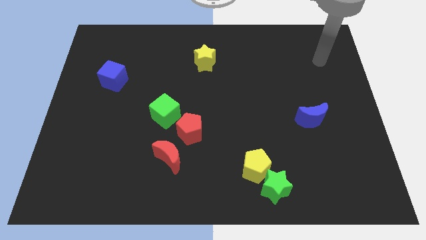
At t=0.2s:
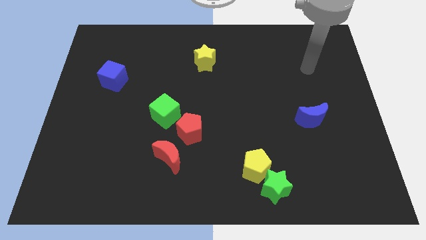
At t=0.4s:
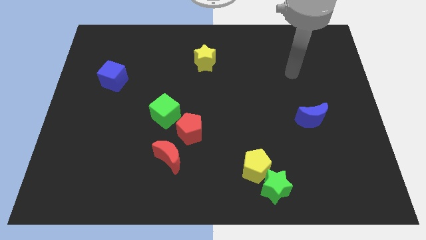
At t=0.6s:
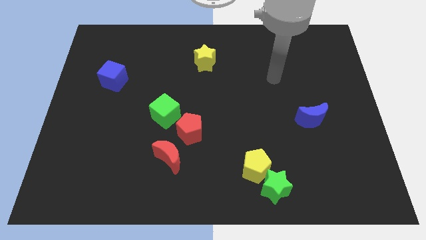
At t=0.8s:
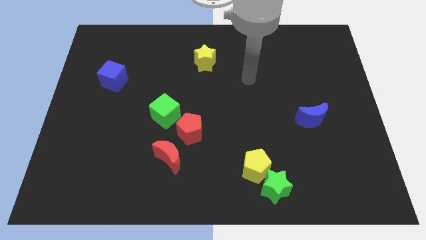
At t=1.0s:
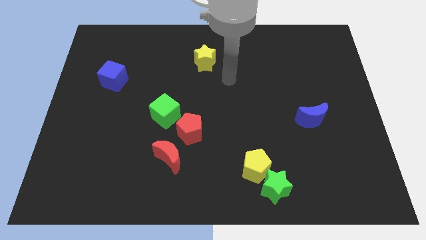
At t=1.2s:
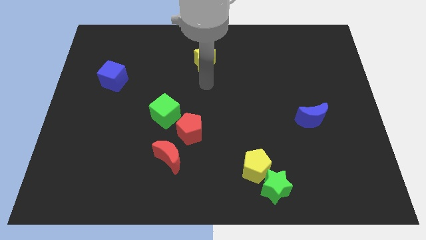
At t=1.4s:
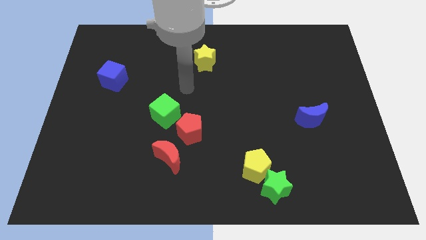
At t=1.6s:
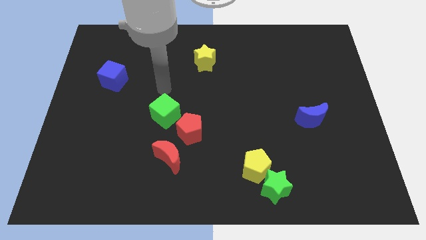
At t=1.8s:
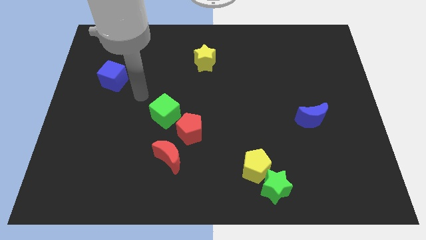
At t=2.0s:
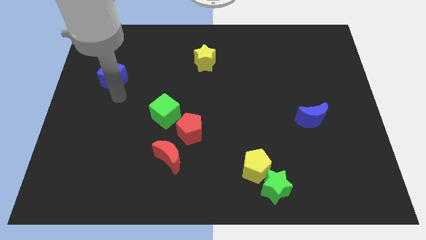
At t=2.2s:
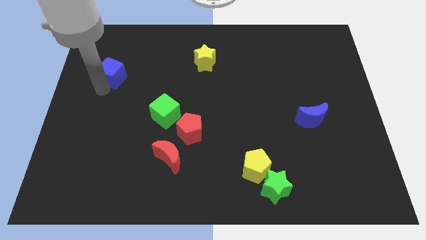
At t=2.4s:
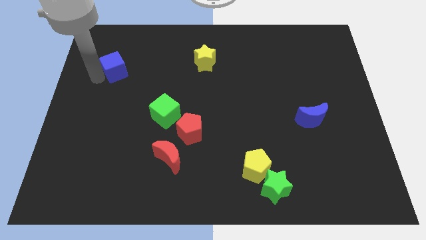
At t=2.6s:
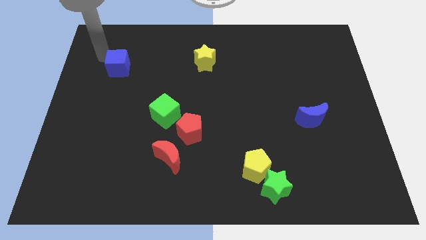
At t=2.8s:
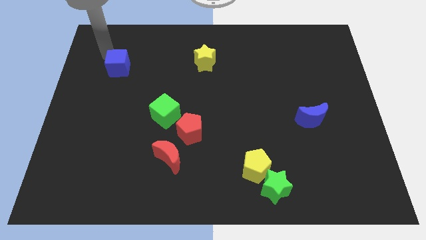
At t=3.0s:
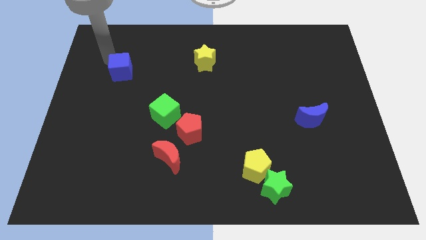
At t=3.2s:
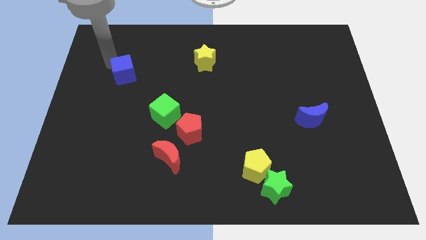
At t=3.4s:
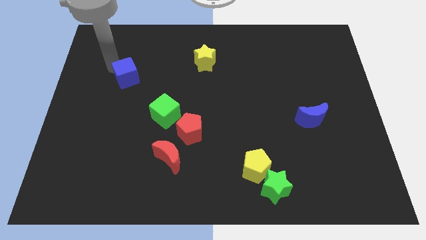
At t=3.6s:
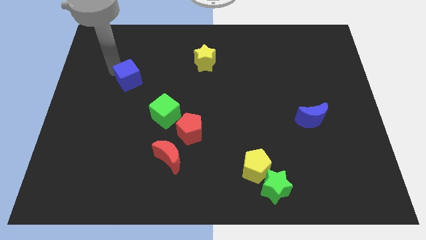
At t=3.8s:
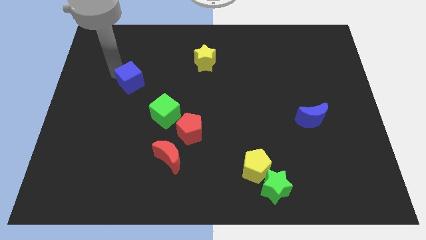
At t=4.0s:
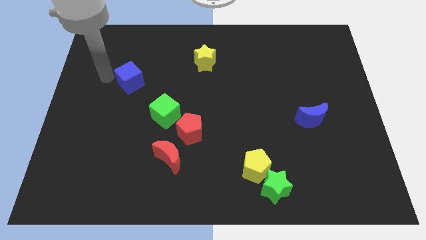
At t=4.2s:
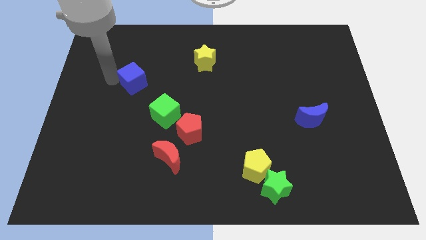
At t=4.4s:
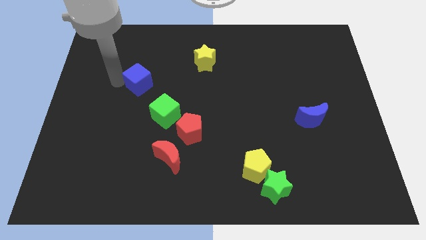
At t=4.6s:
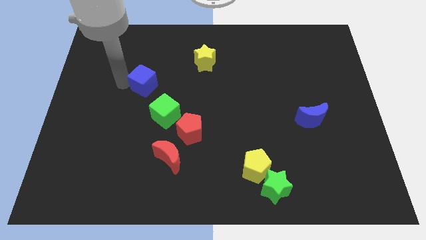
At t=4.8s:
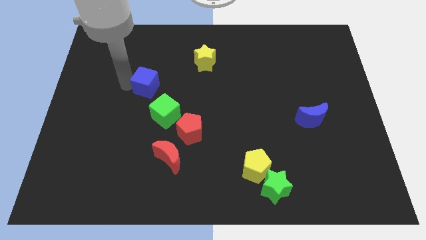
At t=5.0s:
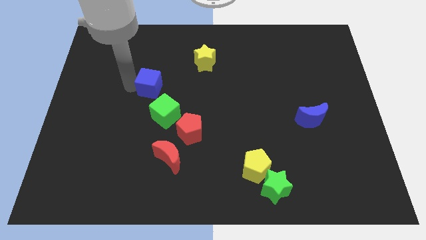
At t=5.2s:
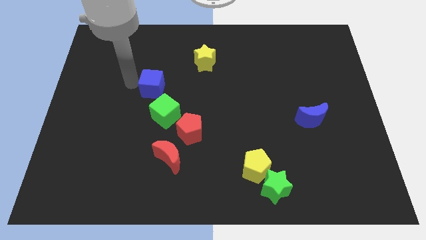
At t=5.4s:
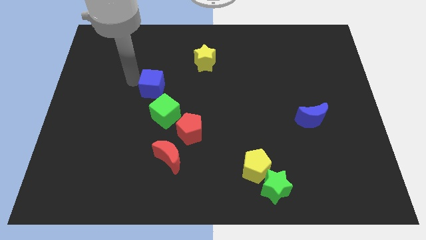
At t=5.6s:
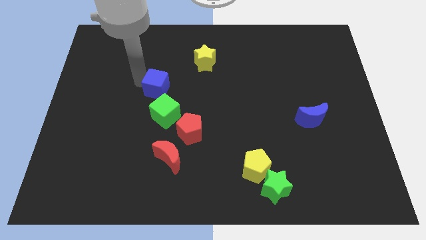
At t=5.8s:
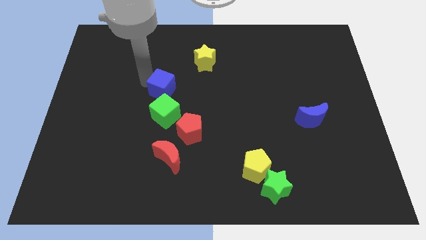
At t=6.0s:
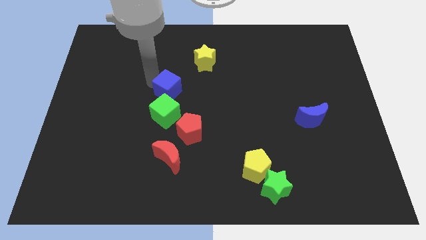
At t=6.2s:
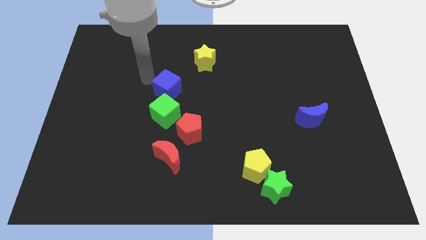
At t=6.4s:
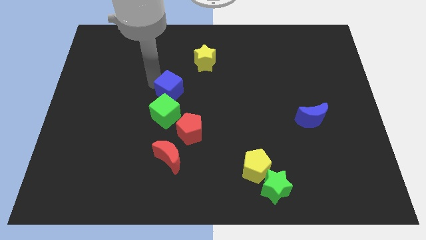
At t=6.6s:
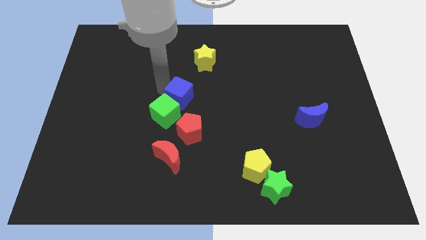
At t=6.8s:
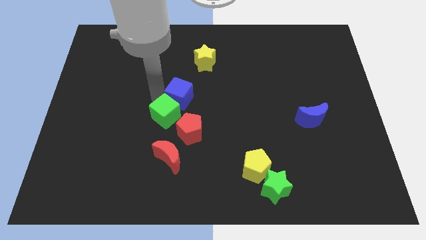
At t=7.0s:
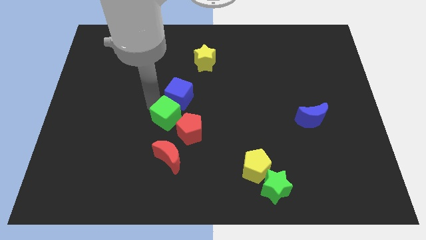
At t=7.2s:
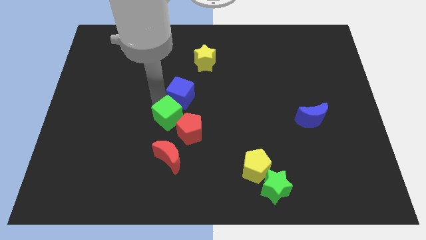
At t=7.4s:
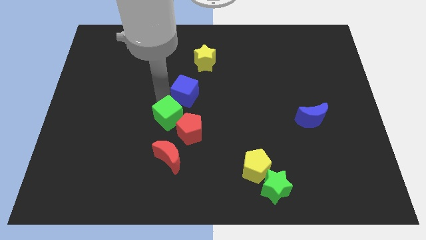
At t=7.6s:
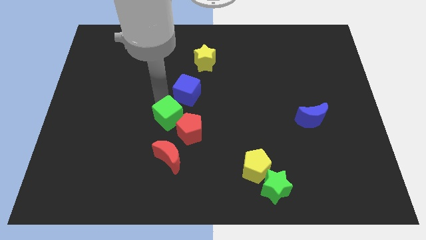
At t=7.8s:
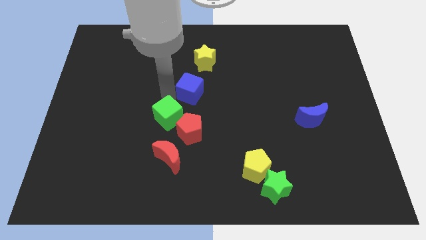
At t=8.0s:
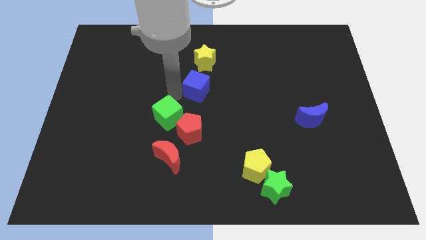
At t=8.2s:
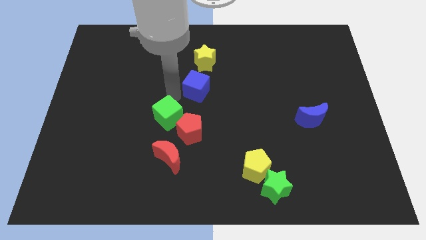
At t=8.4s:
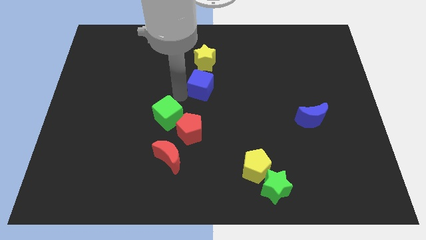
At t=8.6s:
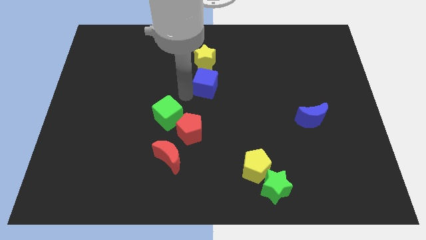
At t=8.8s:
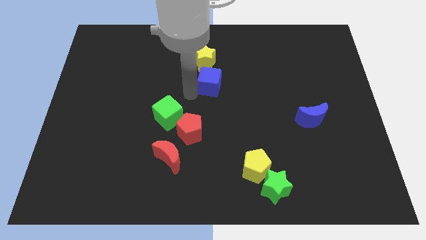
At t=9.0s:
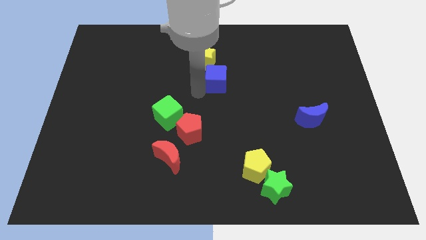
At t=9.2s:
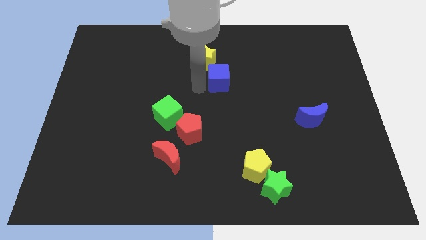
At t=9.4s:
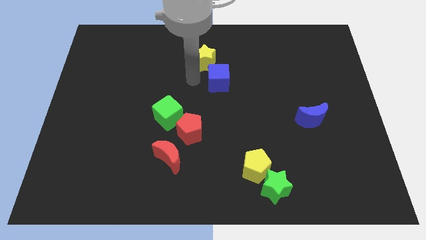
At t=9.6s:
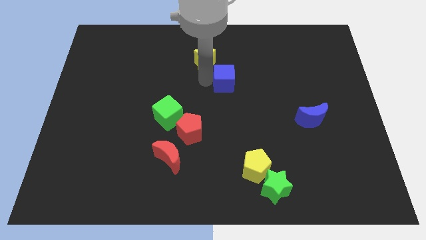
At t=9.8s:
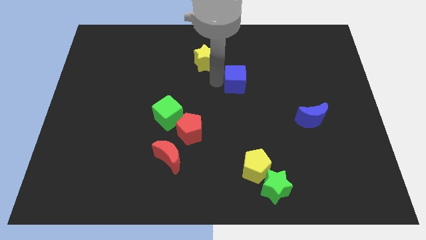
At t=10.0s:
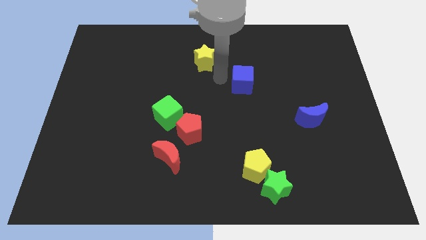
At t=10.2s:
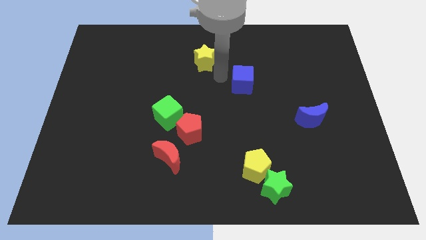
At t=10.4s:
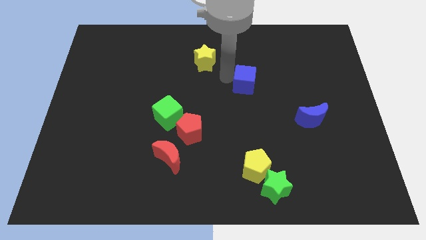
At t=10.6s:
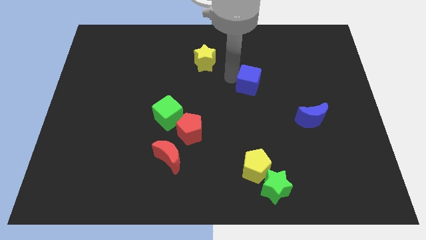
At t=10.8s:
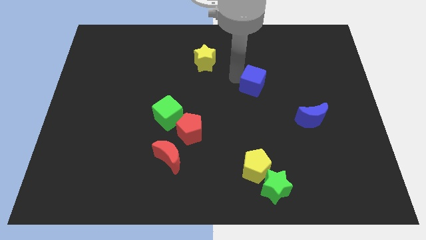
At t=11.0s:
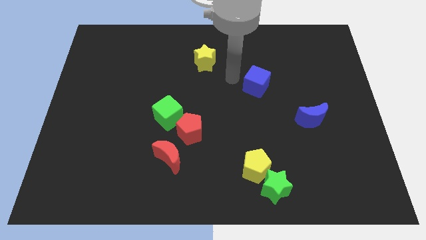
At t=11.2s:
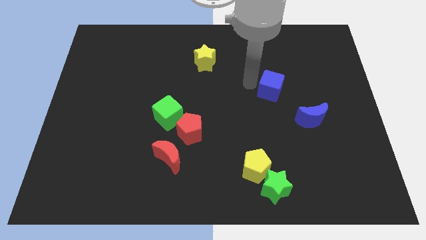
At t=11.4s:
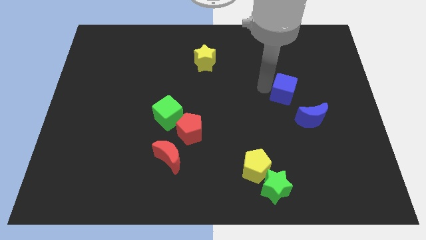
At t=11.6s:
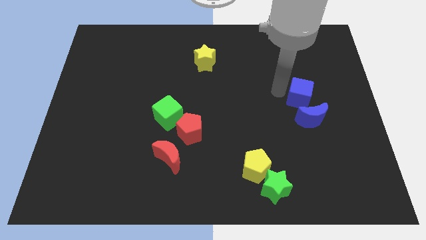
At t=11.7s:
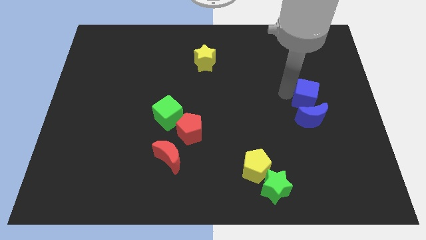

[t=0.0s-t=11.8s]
slide the blue cube to the top right side of the blue moon

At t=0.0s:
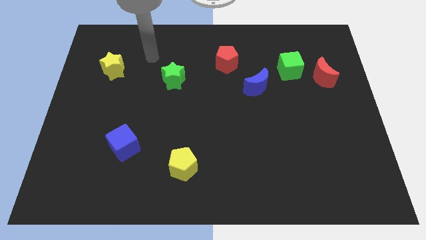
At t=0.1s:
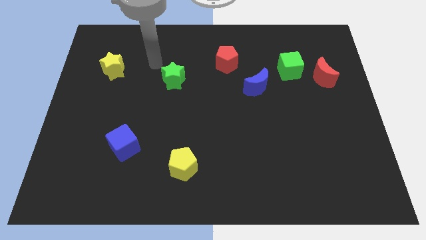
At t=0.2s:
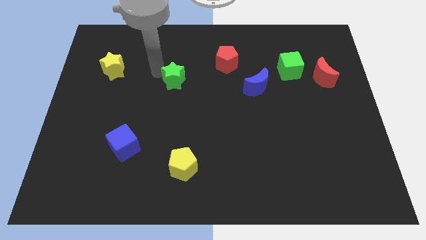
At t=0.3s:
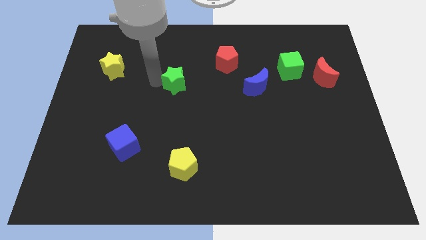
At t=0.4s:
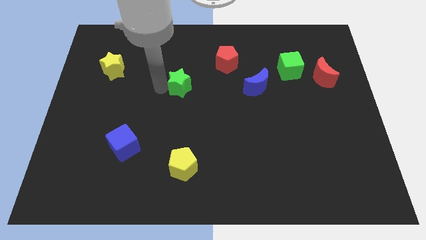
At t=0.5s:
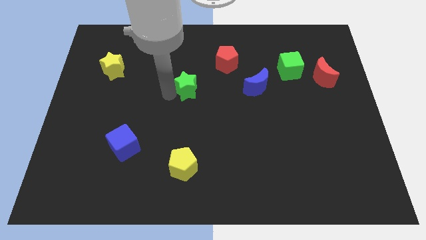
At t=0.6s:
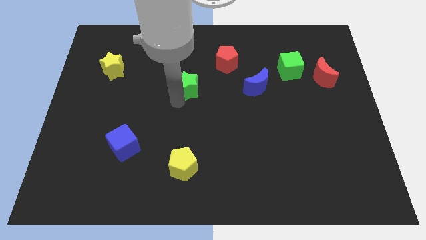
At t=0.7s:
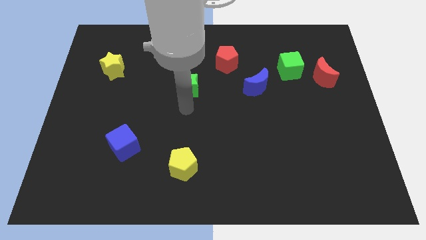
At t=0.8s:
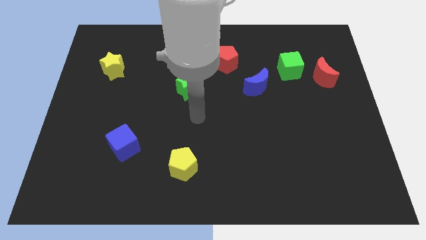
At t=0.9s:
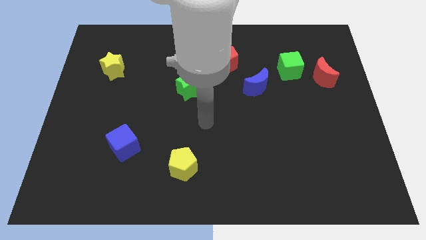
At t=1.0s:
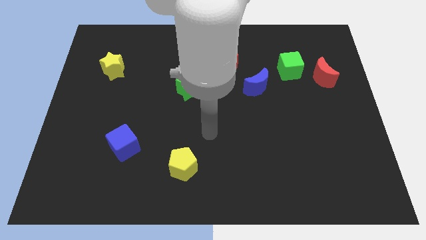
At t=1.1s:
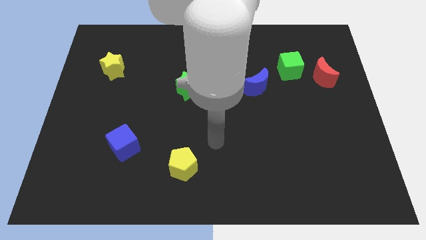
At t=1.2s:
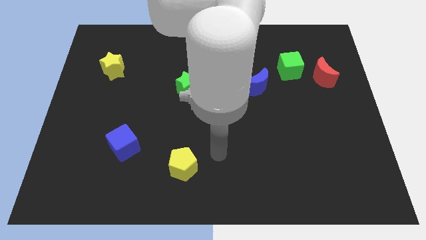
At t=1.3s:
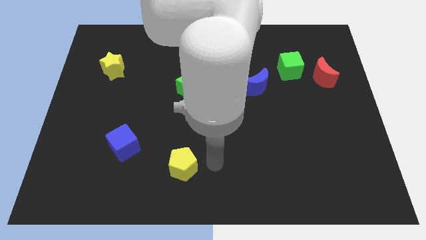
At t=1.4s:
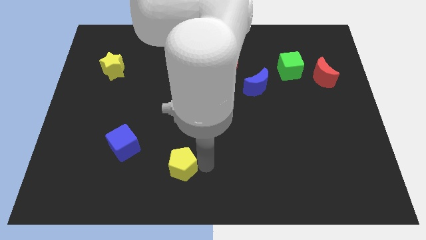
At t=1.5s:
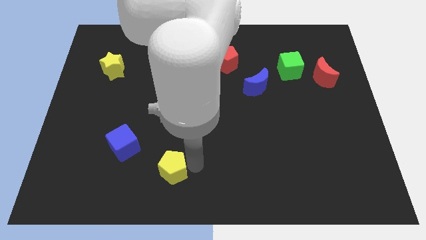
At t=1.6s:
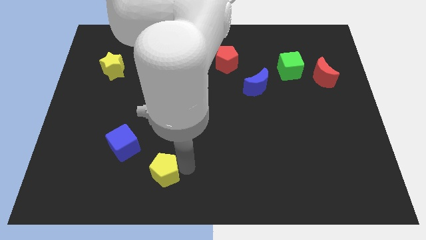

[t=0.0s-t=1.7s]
push the yellow pentagon diagonally down and to the right of the blue cube
